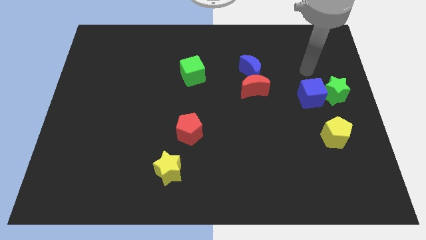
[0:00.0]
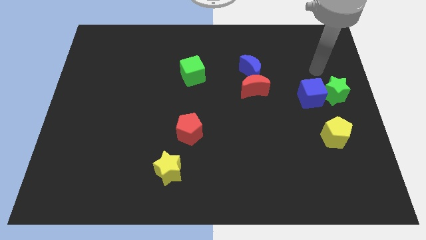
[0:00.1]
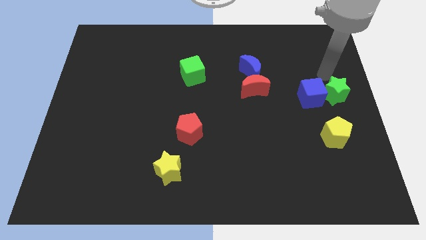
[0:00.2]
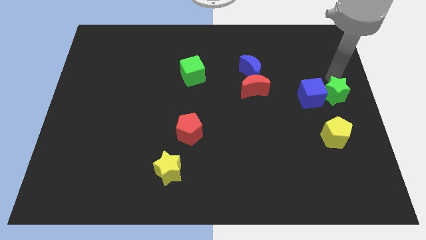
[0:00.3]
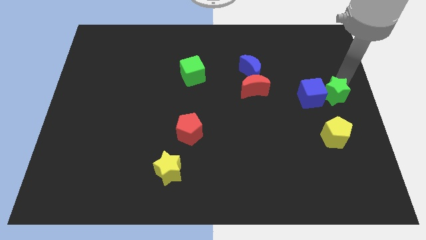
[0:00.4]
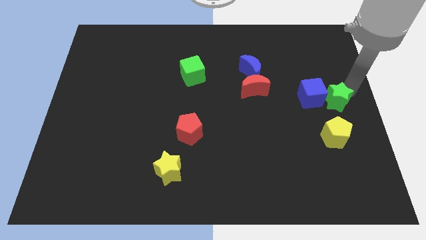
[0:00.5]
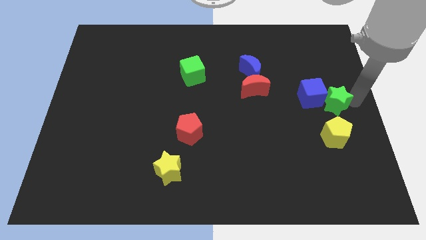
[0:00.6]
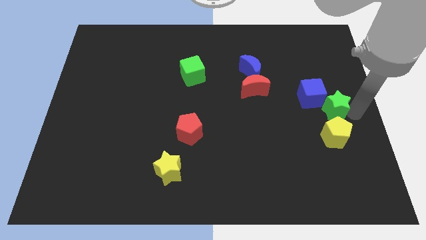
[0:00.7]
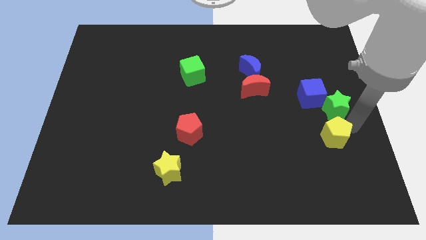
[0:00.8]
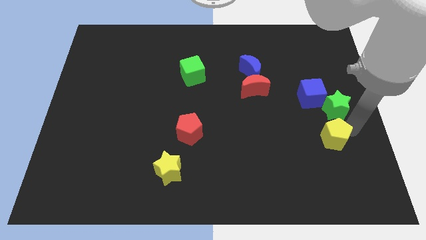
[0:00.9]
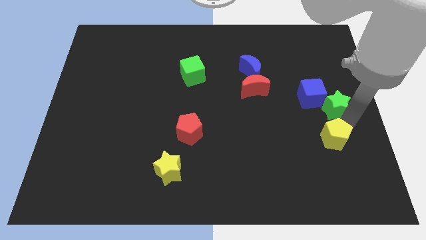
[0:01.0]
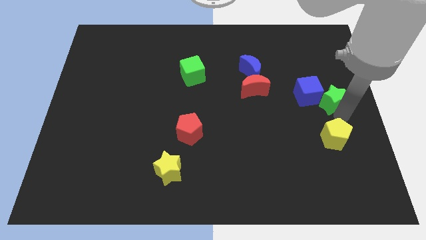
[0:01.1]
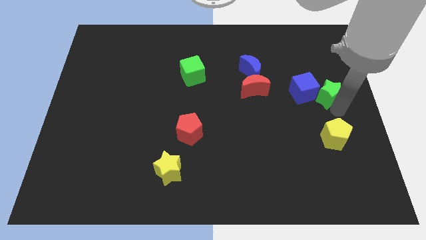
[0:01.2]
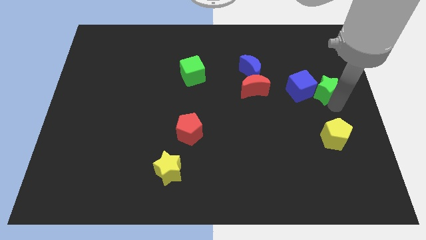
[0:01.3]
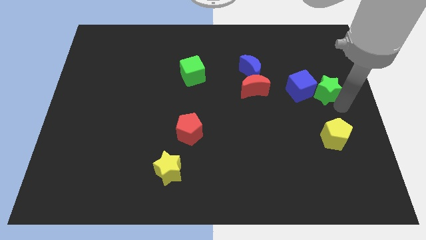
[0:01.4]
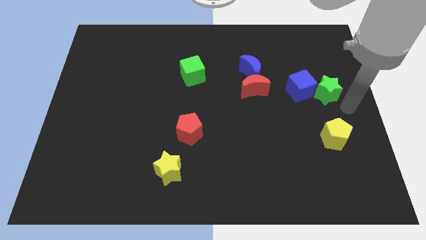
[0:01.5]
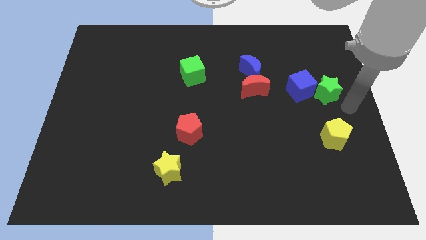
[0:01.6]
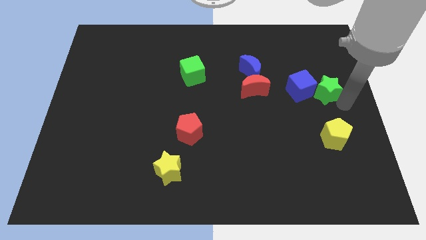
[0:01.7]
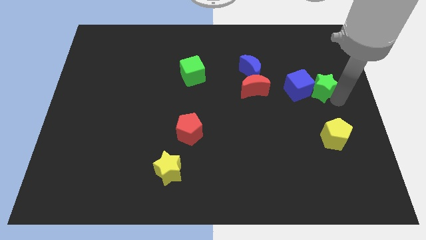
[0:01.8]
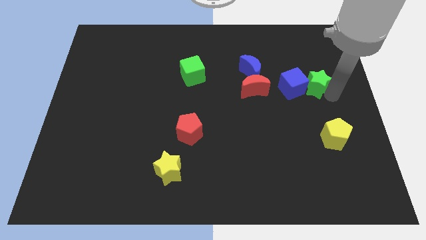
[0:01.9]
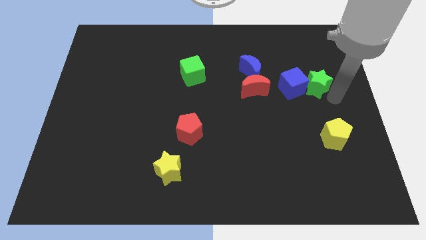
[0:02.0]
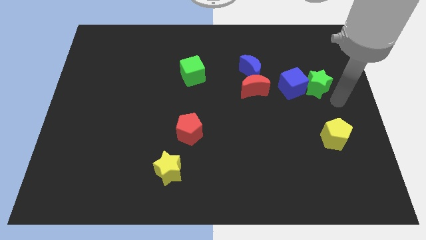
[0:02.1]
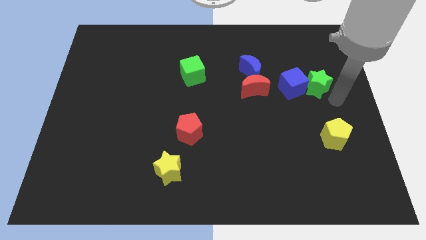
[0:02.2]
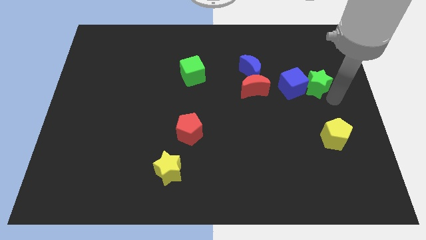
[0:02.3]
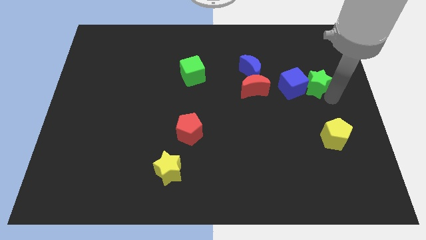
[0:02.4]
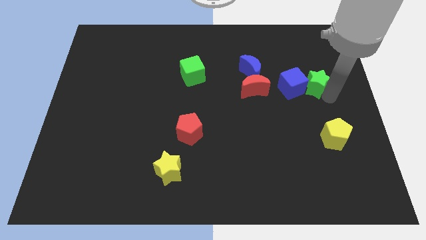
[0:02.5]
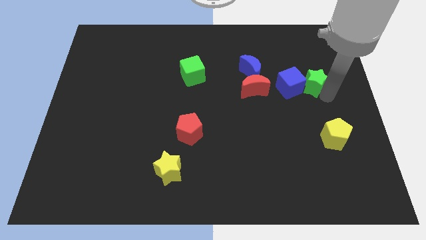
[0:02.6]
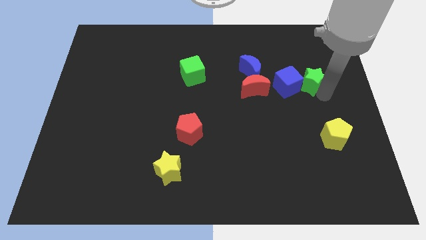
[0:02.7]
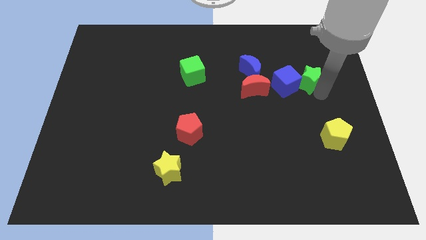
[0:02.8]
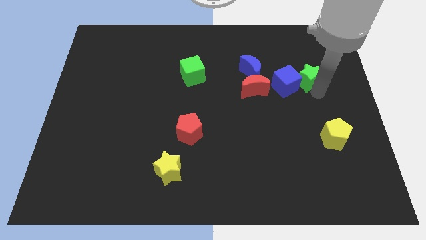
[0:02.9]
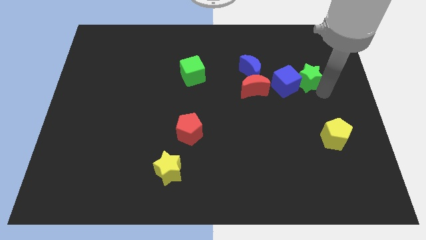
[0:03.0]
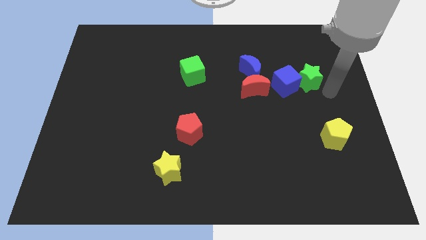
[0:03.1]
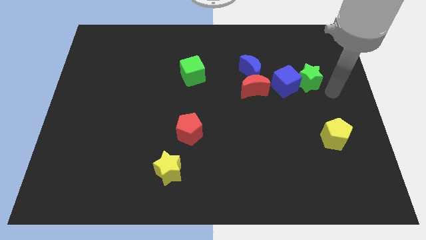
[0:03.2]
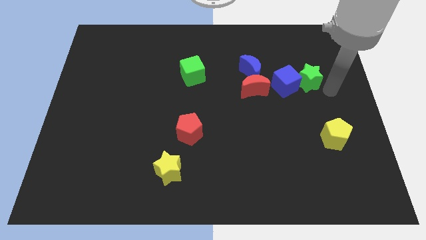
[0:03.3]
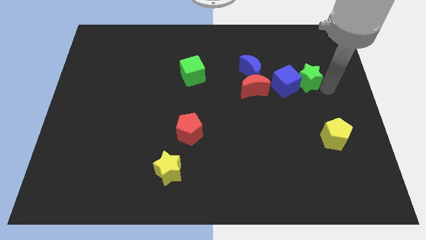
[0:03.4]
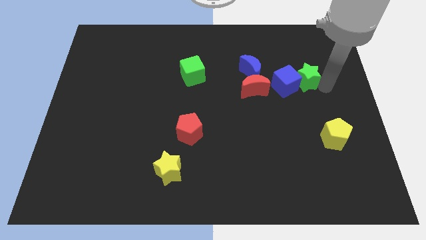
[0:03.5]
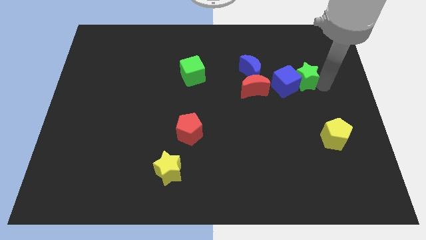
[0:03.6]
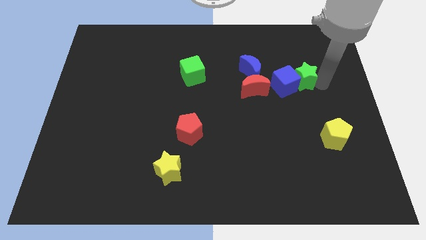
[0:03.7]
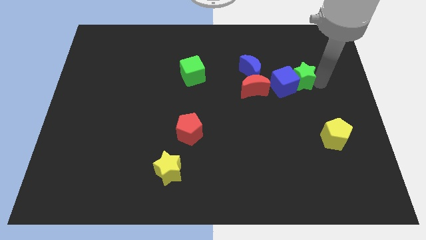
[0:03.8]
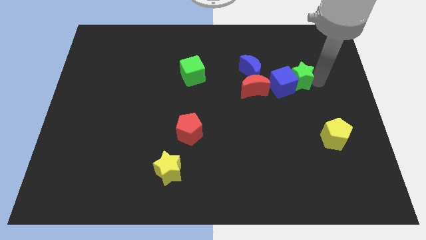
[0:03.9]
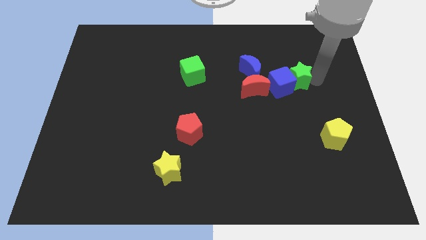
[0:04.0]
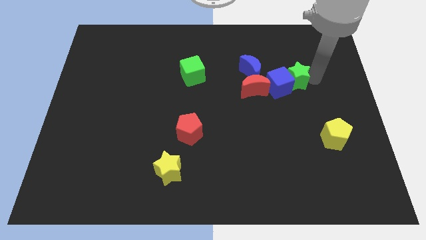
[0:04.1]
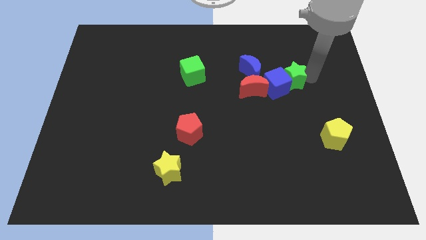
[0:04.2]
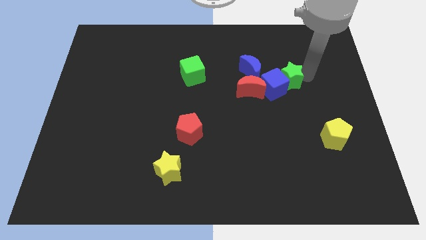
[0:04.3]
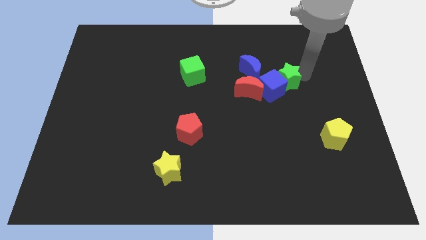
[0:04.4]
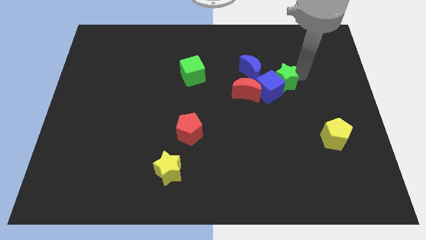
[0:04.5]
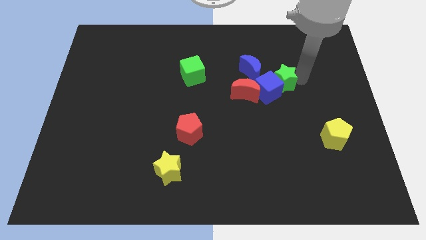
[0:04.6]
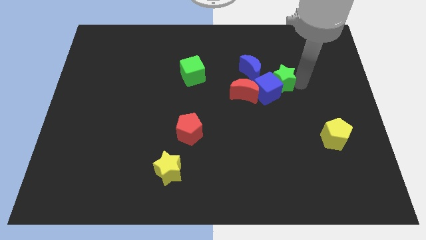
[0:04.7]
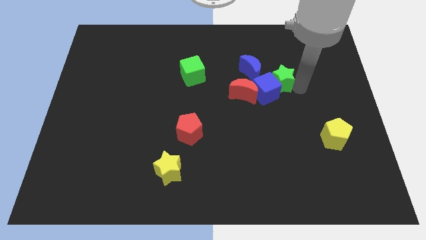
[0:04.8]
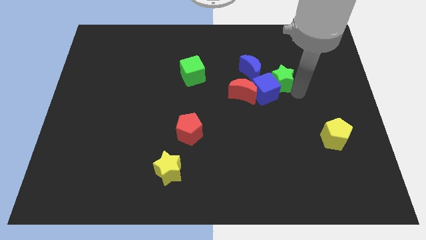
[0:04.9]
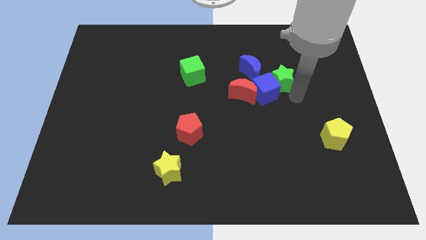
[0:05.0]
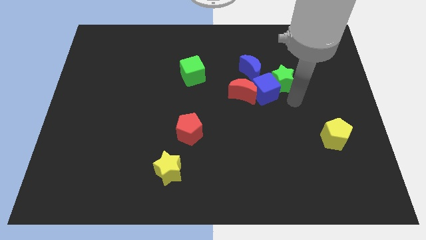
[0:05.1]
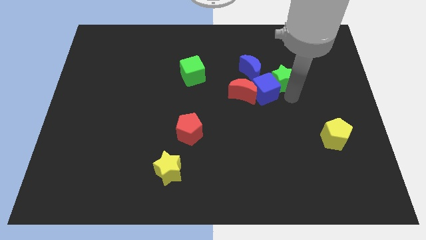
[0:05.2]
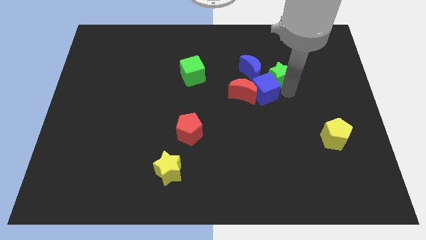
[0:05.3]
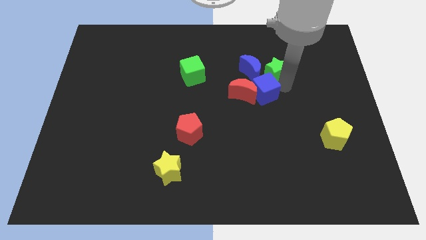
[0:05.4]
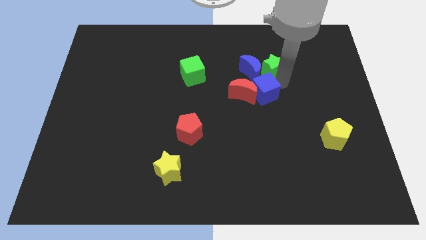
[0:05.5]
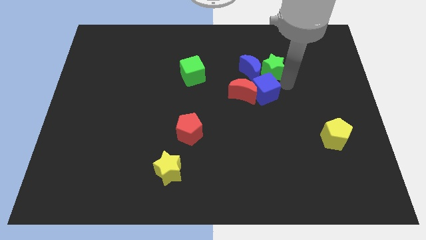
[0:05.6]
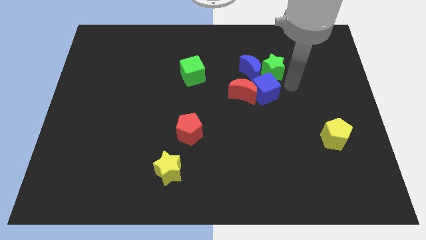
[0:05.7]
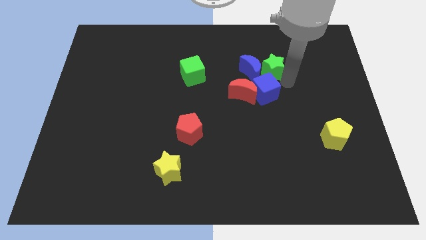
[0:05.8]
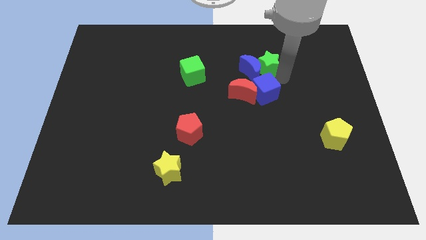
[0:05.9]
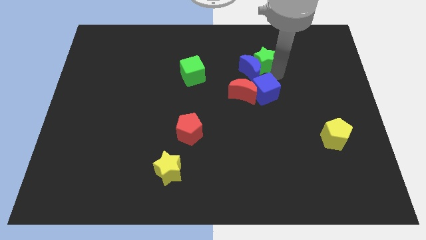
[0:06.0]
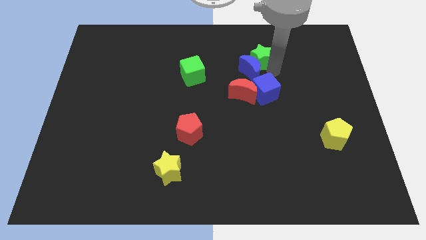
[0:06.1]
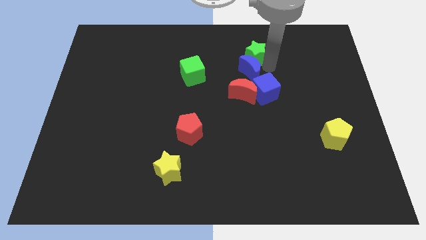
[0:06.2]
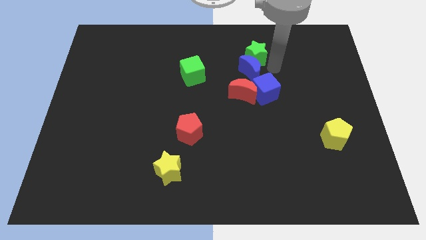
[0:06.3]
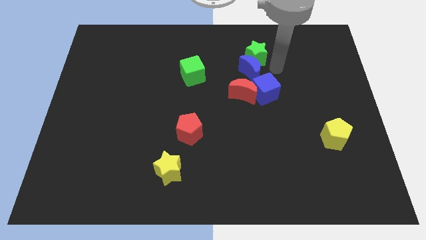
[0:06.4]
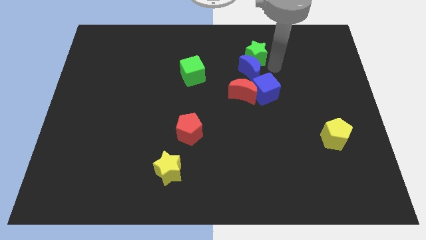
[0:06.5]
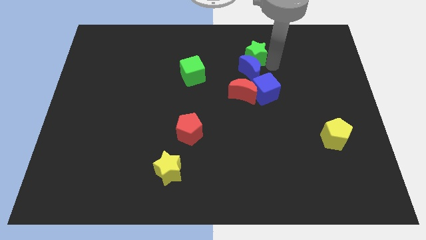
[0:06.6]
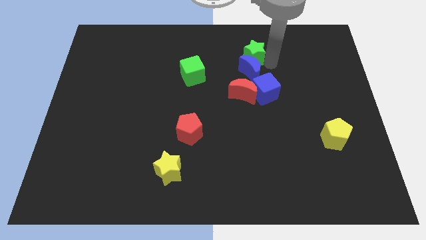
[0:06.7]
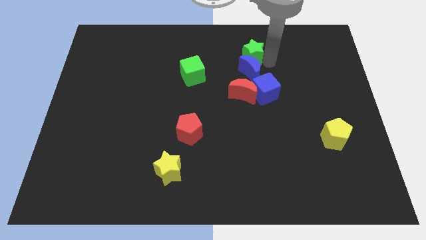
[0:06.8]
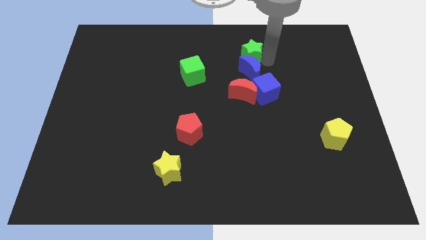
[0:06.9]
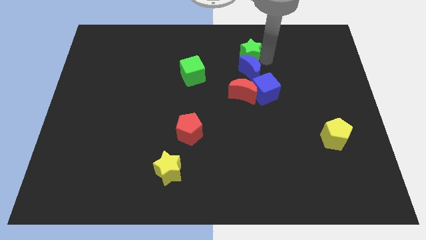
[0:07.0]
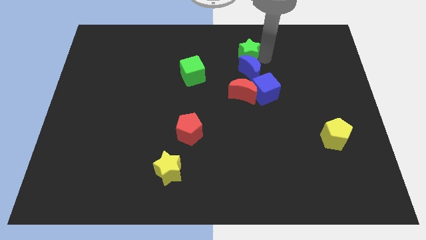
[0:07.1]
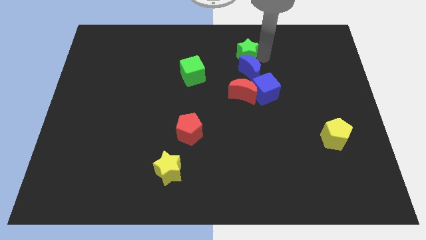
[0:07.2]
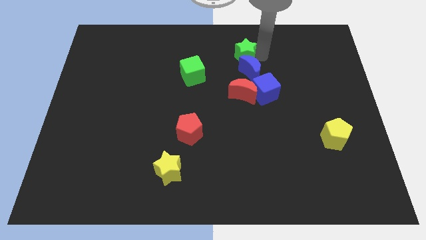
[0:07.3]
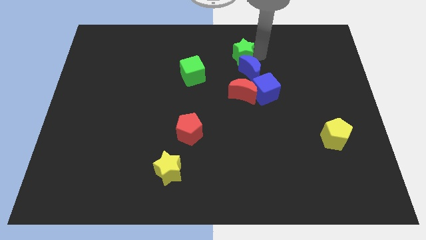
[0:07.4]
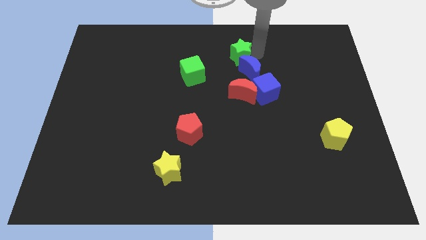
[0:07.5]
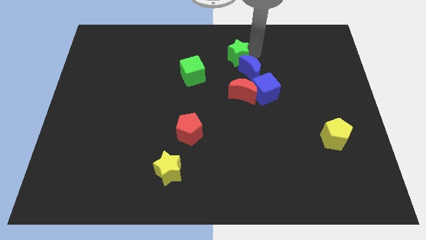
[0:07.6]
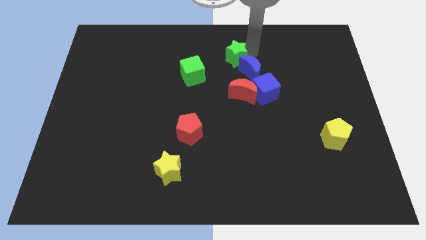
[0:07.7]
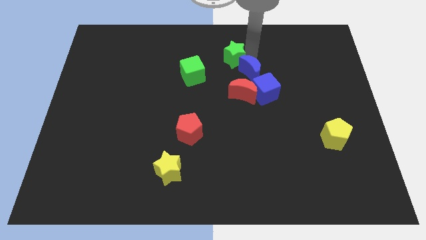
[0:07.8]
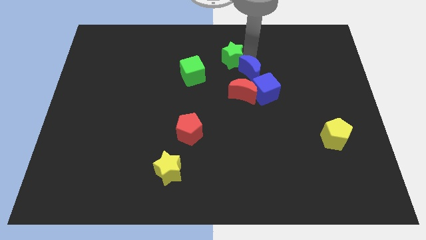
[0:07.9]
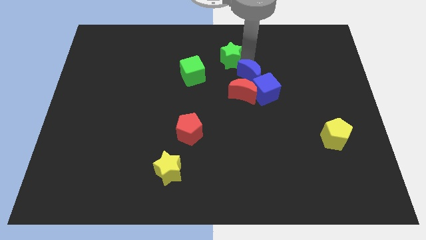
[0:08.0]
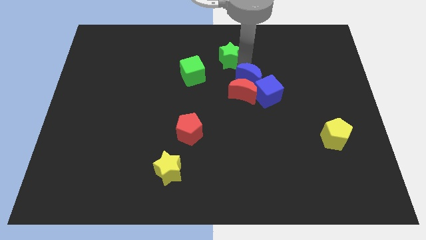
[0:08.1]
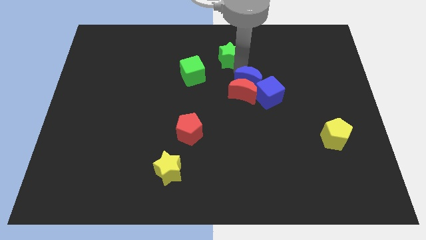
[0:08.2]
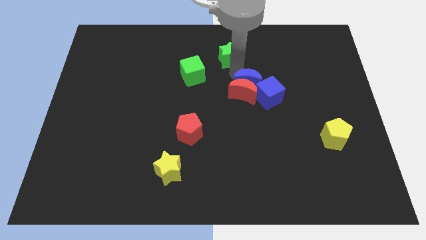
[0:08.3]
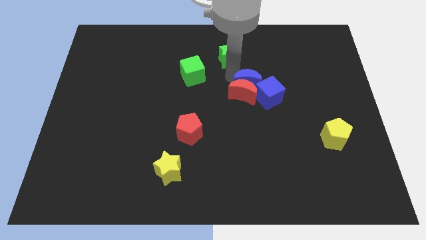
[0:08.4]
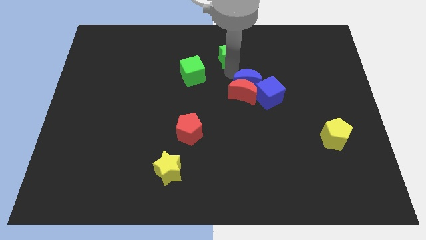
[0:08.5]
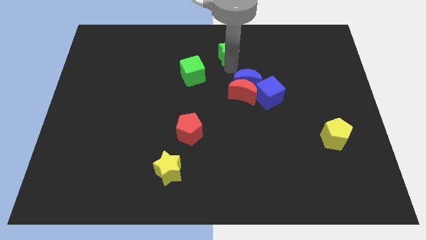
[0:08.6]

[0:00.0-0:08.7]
push the green star to the top side
